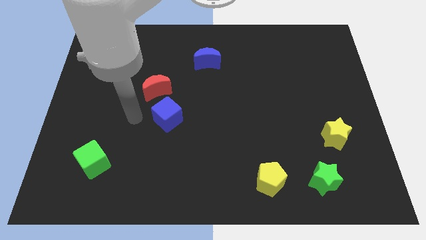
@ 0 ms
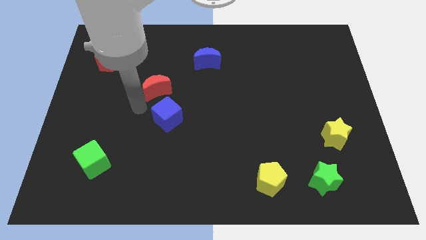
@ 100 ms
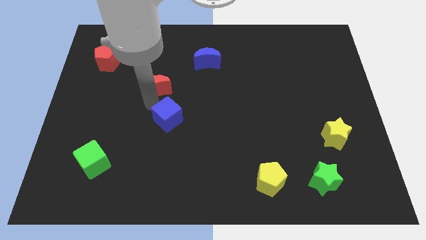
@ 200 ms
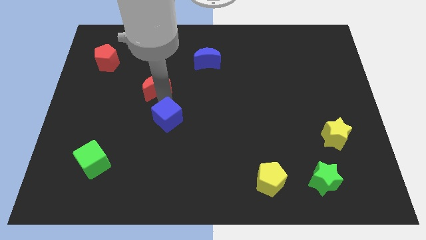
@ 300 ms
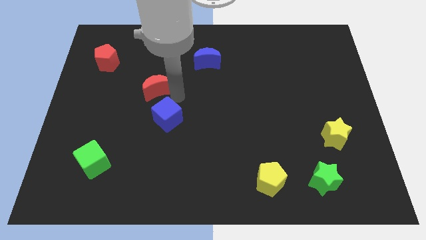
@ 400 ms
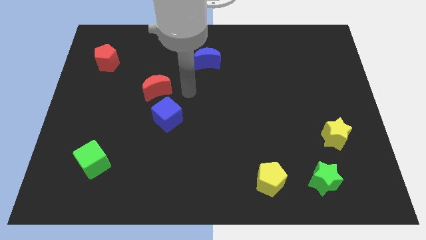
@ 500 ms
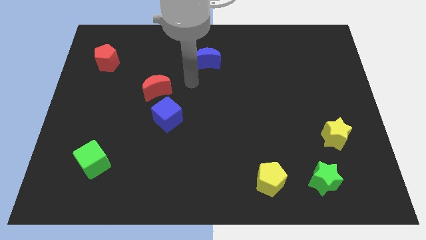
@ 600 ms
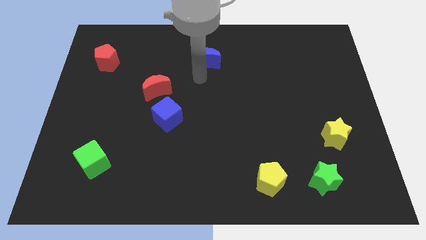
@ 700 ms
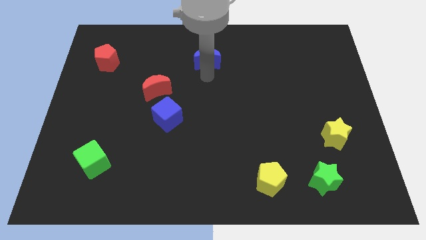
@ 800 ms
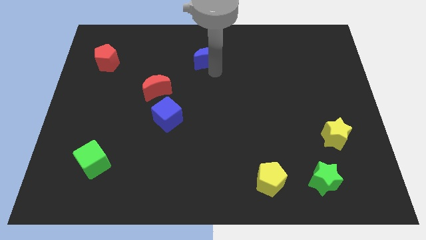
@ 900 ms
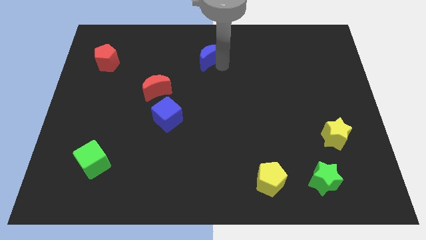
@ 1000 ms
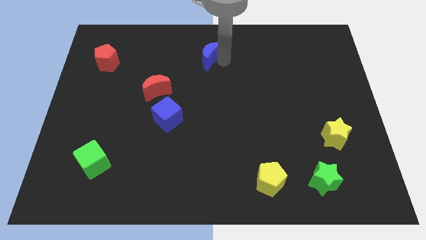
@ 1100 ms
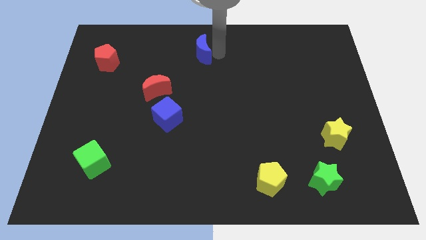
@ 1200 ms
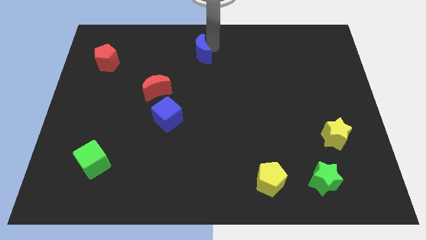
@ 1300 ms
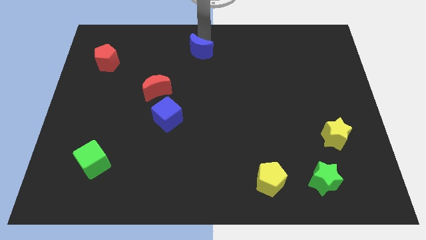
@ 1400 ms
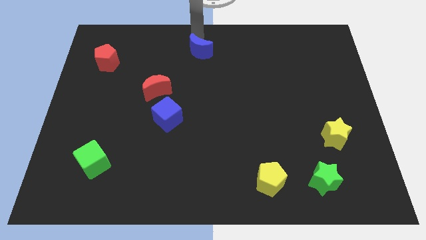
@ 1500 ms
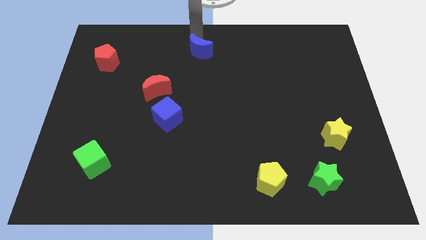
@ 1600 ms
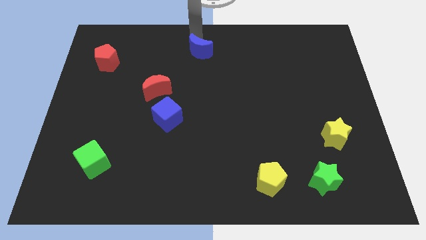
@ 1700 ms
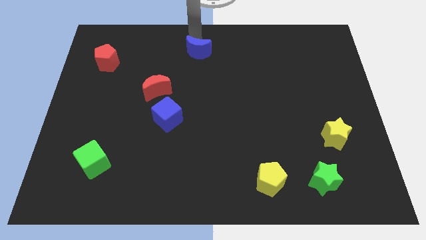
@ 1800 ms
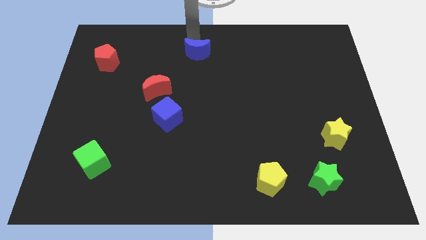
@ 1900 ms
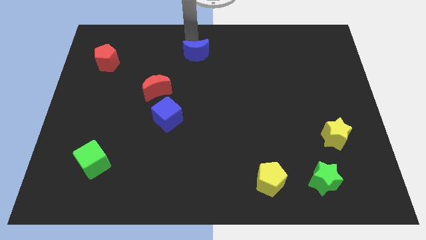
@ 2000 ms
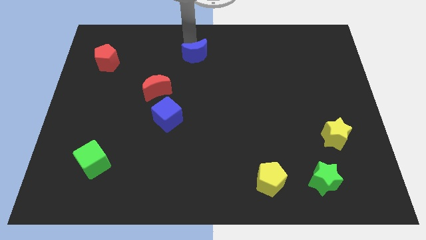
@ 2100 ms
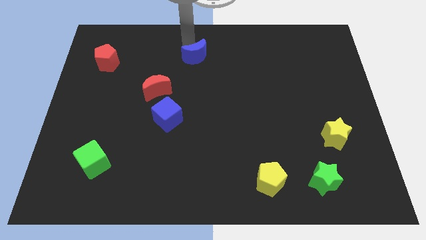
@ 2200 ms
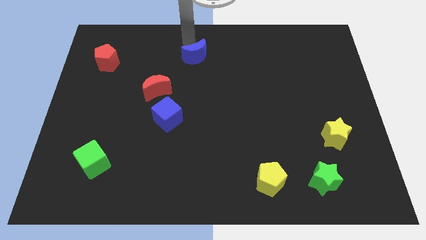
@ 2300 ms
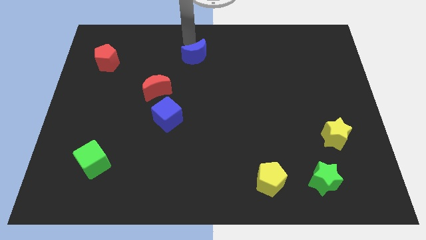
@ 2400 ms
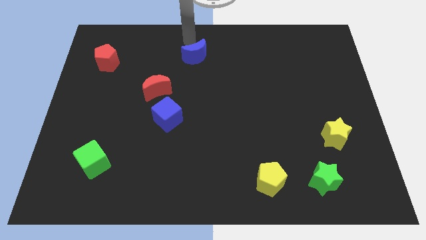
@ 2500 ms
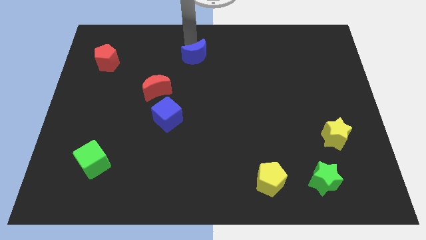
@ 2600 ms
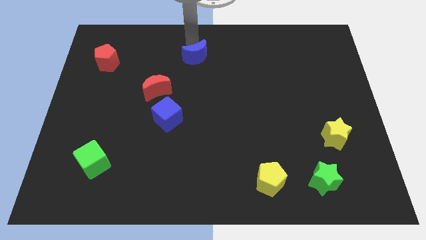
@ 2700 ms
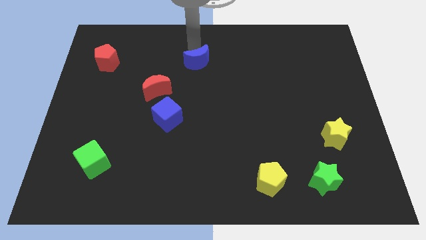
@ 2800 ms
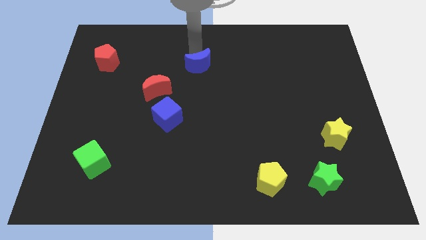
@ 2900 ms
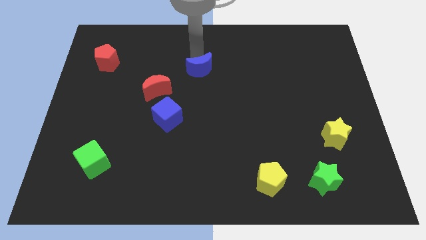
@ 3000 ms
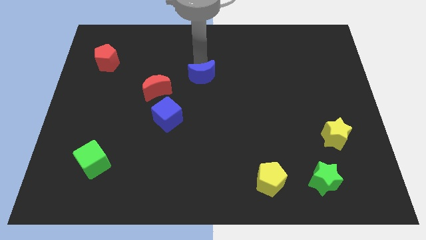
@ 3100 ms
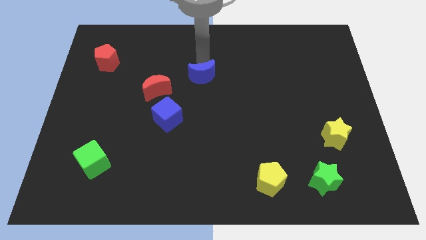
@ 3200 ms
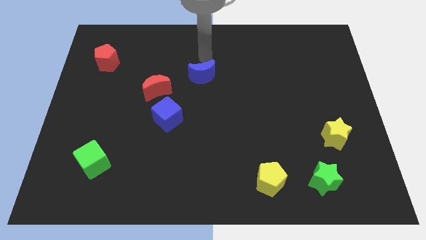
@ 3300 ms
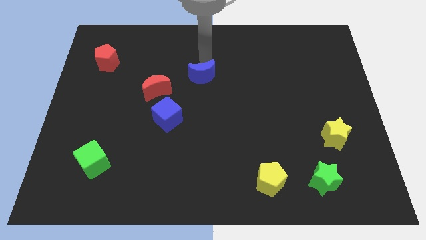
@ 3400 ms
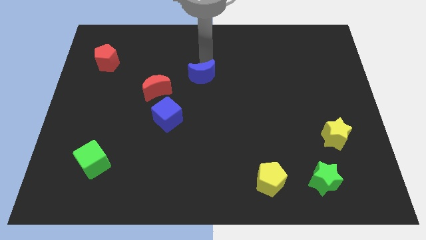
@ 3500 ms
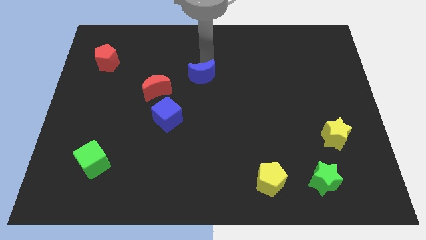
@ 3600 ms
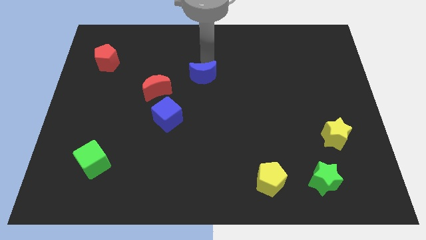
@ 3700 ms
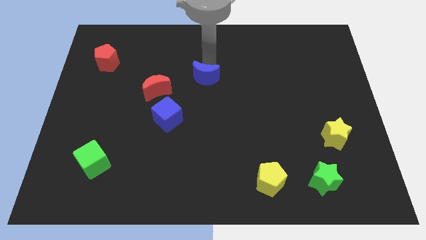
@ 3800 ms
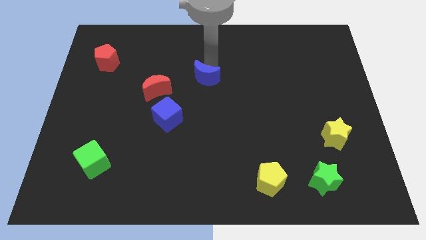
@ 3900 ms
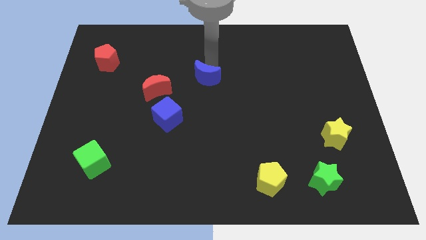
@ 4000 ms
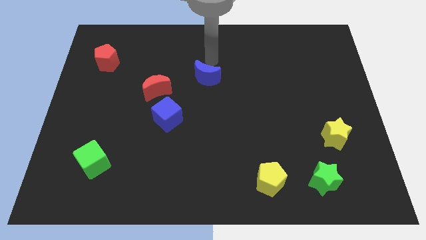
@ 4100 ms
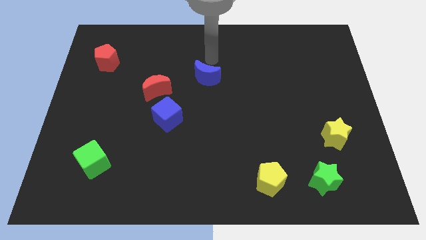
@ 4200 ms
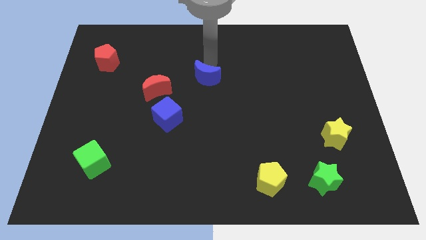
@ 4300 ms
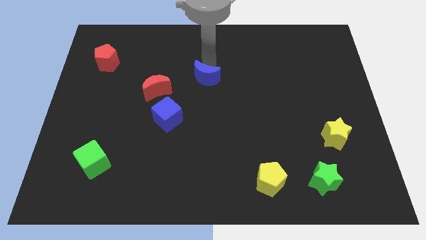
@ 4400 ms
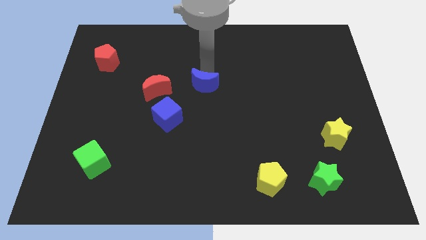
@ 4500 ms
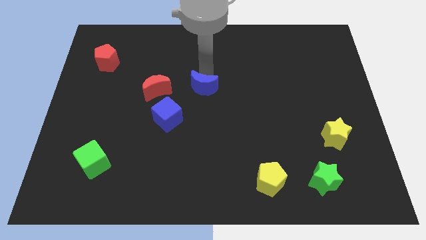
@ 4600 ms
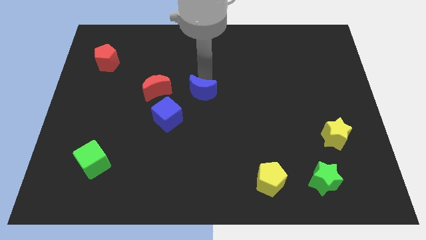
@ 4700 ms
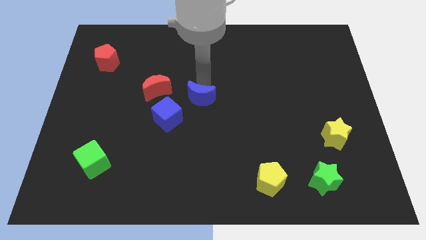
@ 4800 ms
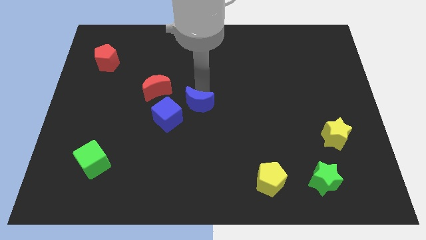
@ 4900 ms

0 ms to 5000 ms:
put the blue moon diagonally down and to the right of the red moon

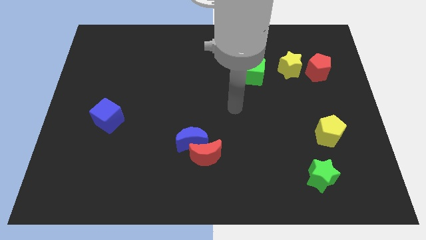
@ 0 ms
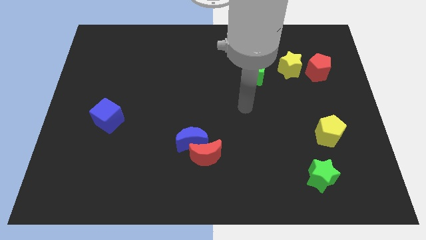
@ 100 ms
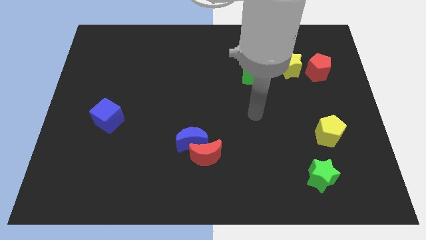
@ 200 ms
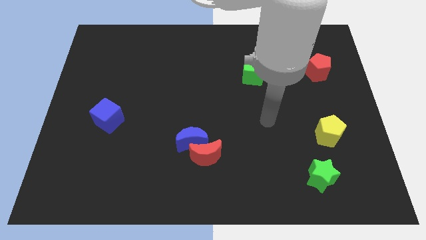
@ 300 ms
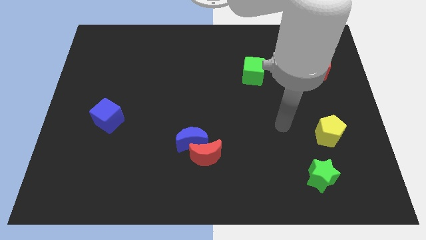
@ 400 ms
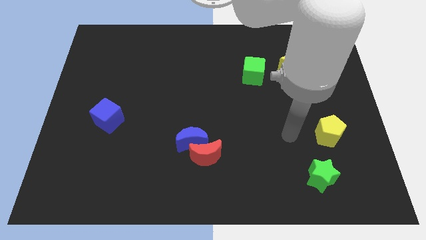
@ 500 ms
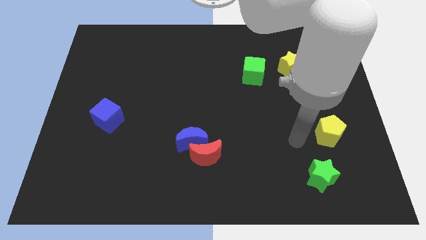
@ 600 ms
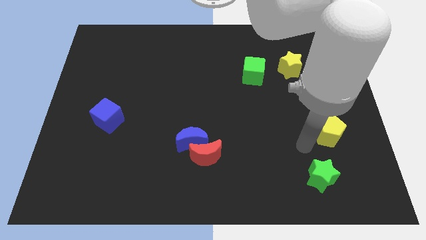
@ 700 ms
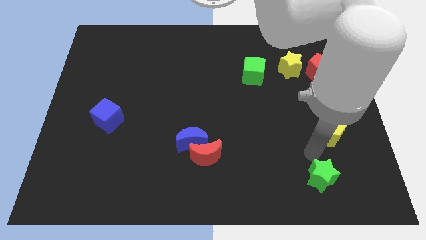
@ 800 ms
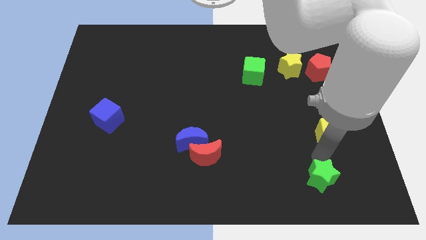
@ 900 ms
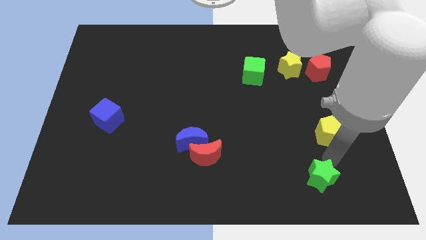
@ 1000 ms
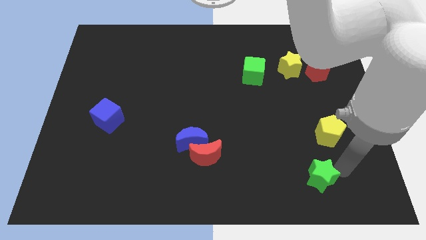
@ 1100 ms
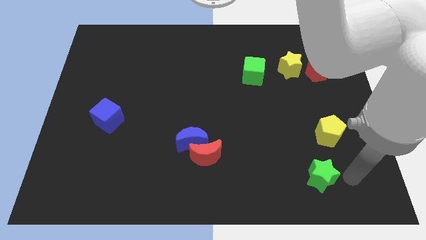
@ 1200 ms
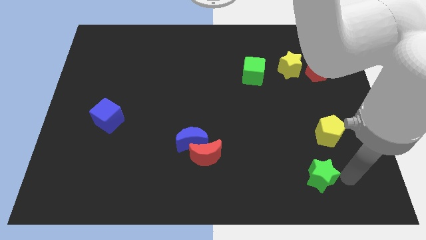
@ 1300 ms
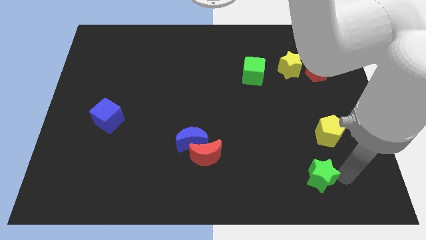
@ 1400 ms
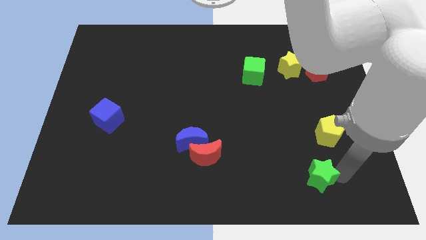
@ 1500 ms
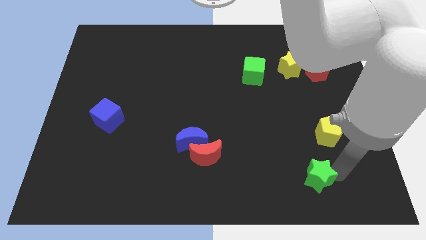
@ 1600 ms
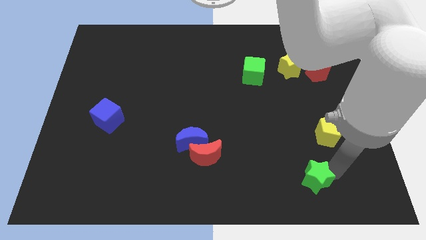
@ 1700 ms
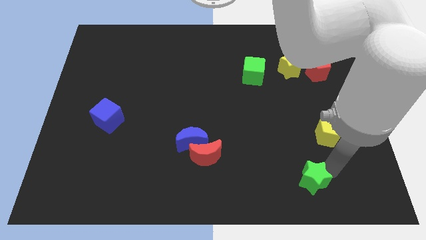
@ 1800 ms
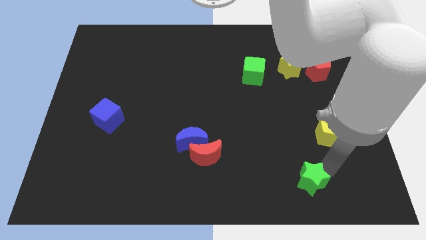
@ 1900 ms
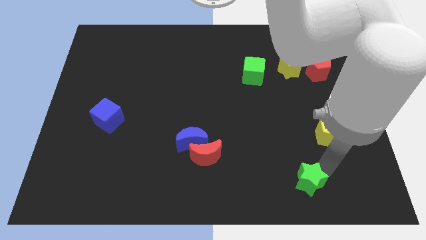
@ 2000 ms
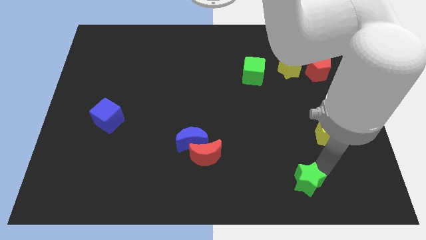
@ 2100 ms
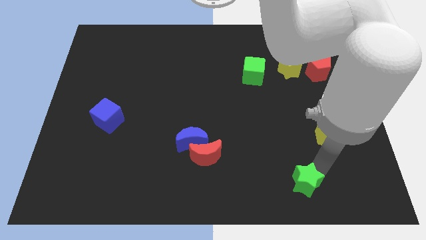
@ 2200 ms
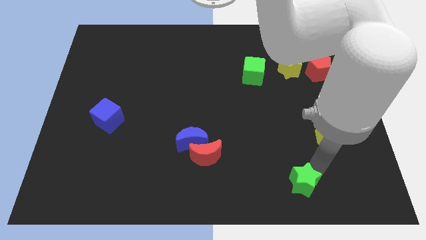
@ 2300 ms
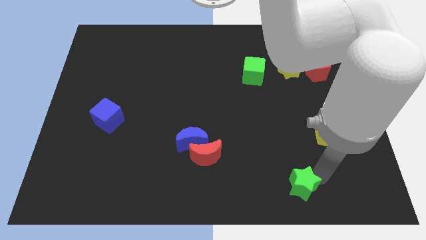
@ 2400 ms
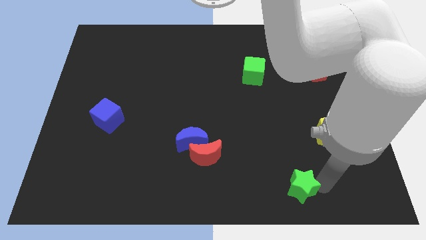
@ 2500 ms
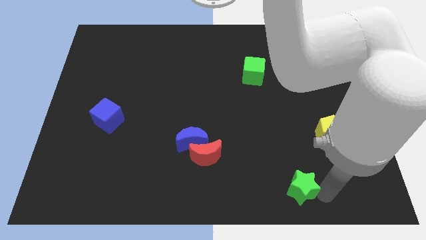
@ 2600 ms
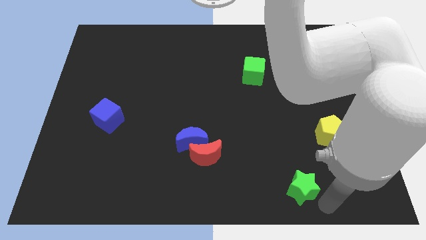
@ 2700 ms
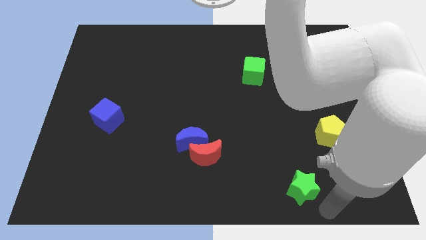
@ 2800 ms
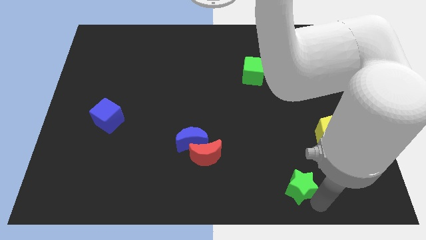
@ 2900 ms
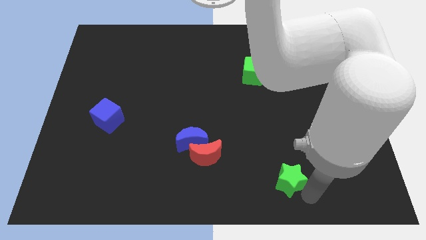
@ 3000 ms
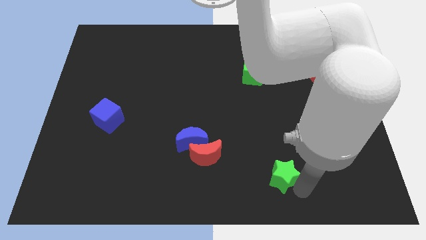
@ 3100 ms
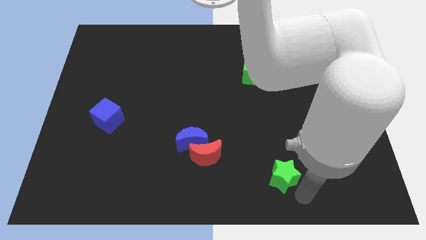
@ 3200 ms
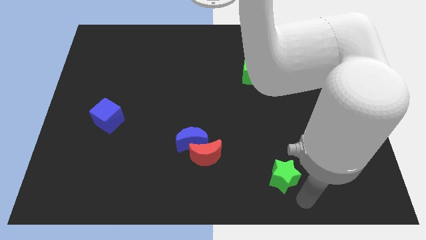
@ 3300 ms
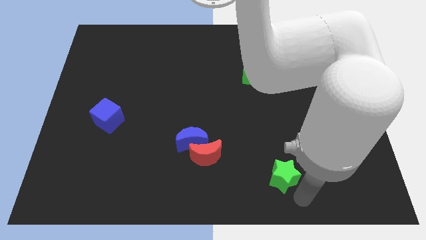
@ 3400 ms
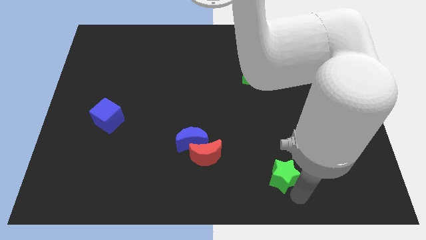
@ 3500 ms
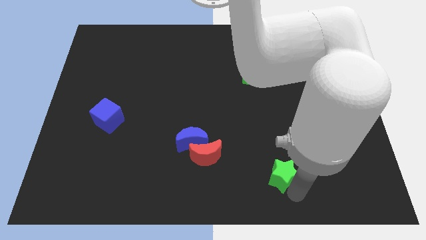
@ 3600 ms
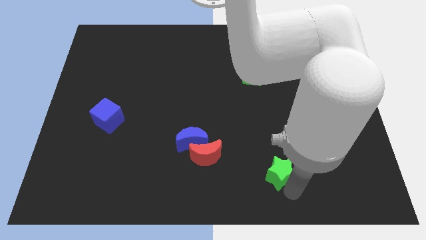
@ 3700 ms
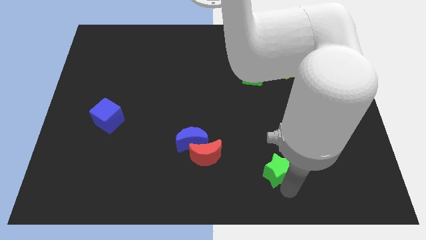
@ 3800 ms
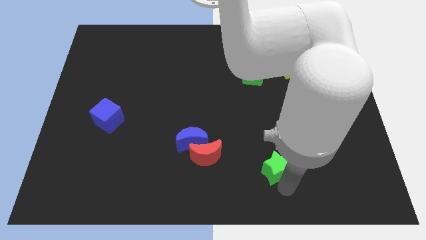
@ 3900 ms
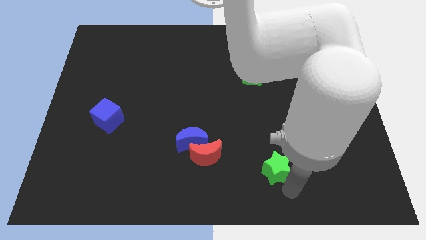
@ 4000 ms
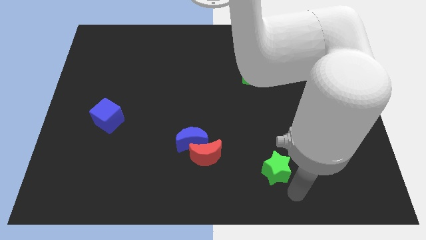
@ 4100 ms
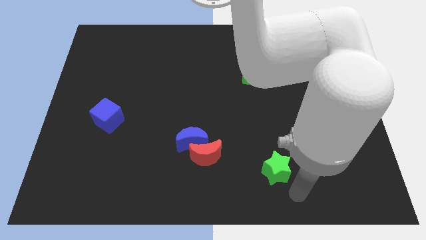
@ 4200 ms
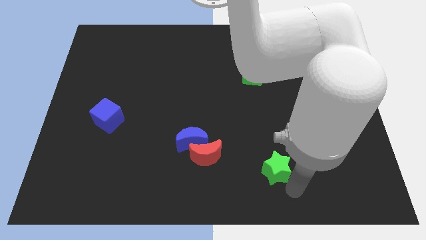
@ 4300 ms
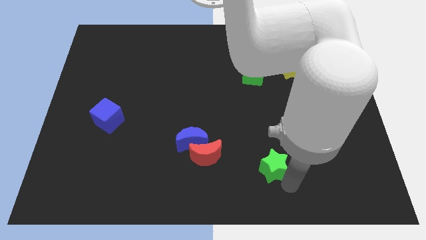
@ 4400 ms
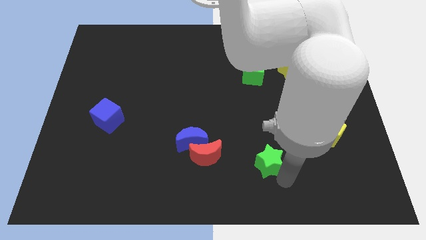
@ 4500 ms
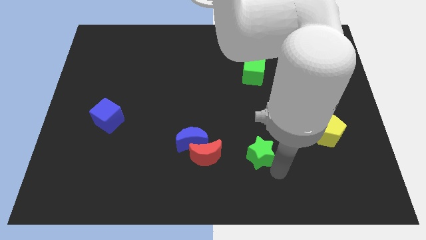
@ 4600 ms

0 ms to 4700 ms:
push the green star to the right side of the blue moon
